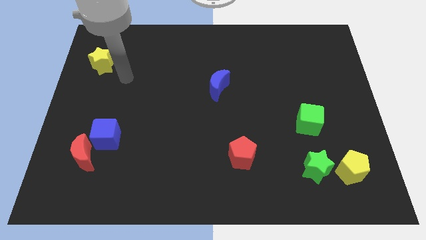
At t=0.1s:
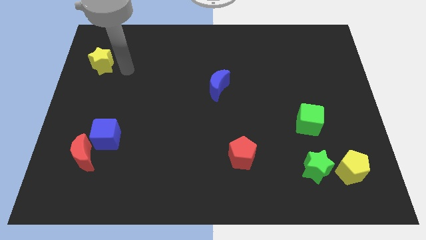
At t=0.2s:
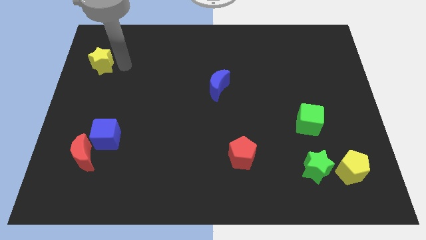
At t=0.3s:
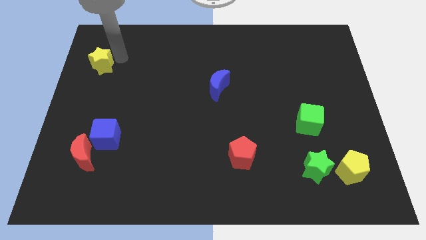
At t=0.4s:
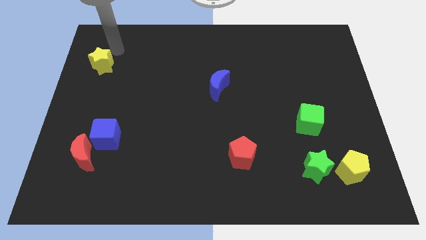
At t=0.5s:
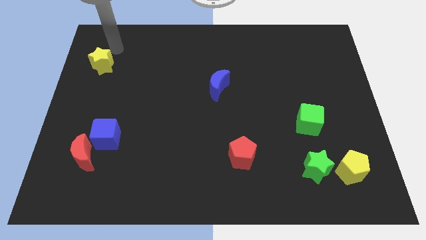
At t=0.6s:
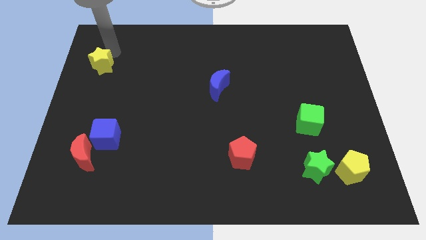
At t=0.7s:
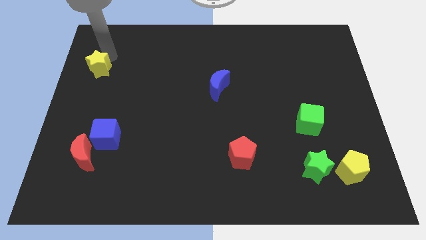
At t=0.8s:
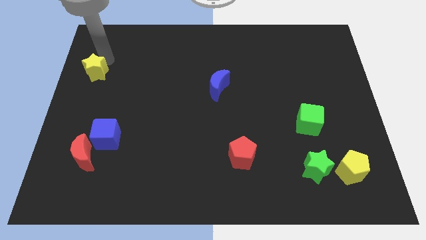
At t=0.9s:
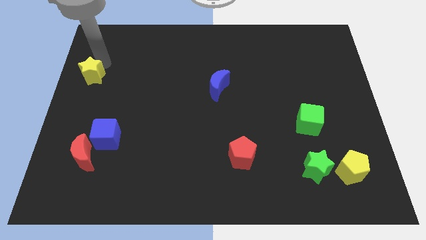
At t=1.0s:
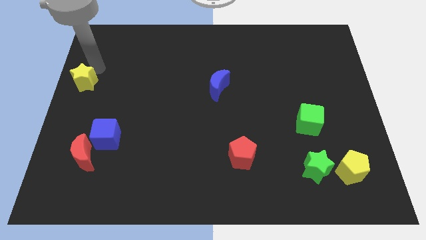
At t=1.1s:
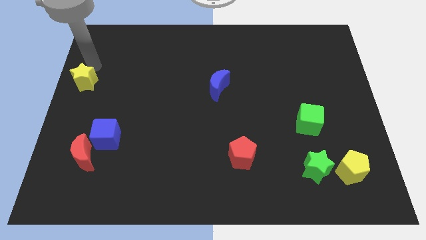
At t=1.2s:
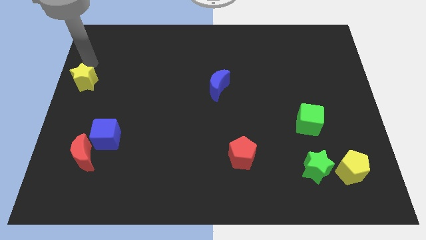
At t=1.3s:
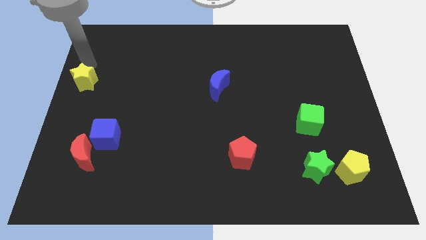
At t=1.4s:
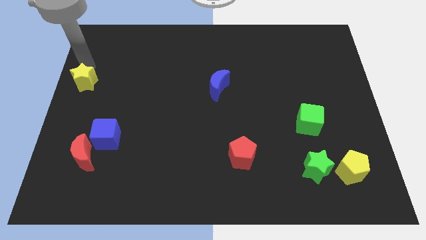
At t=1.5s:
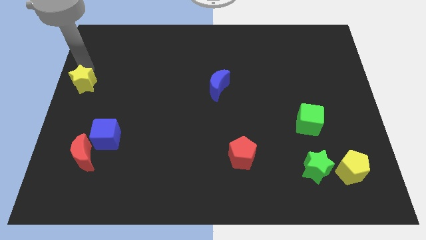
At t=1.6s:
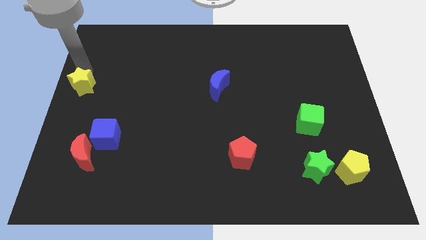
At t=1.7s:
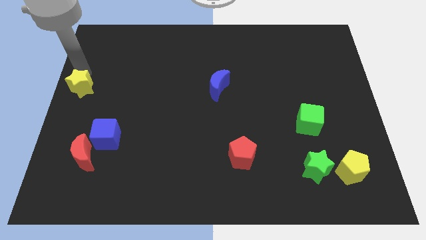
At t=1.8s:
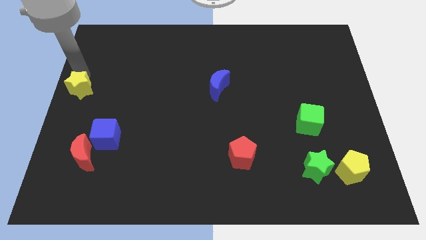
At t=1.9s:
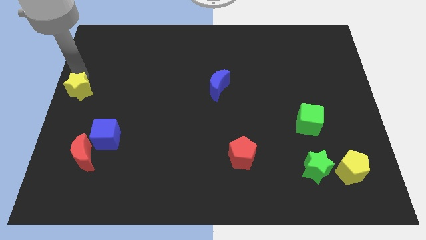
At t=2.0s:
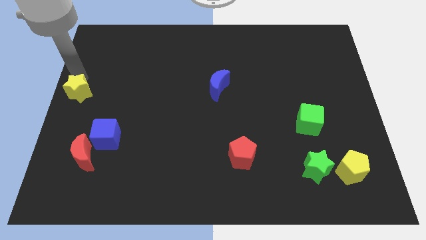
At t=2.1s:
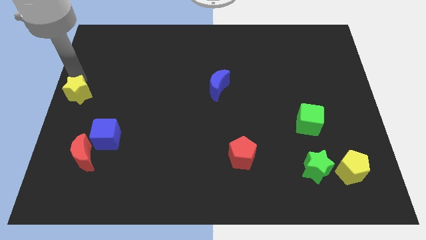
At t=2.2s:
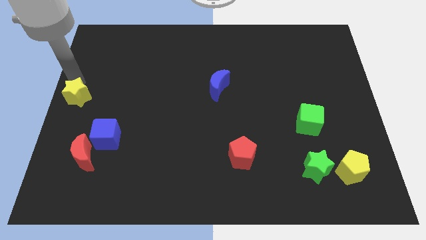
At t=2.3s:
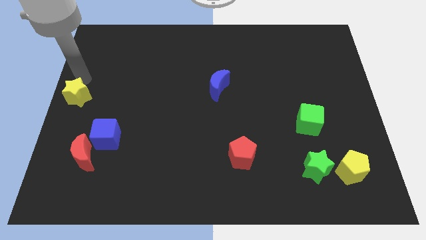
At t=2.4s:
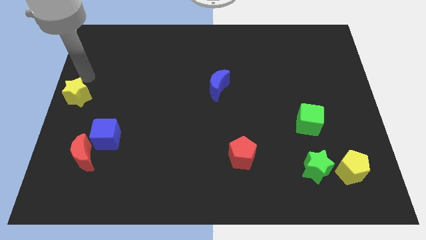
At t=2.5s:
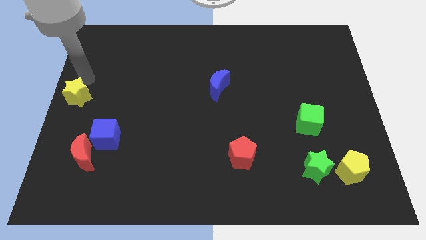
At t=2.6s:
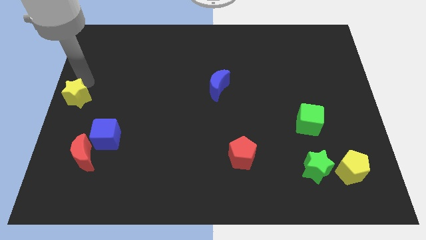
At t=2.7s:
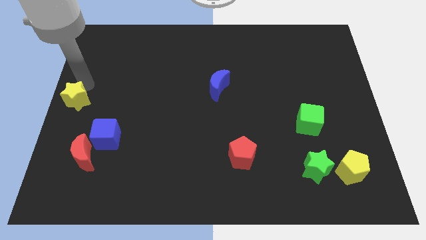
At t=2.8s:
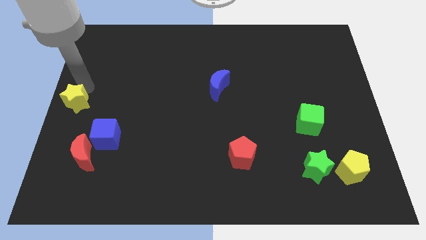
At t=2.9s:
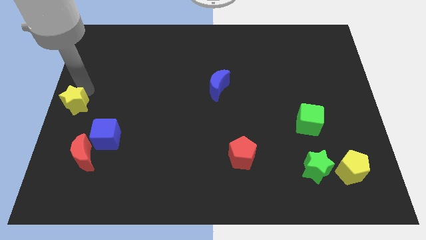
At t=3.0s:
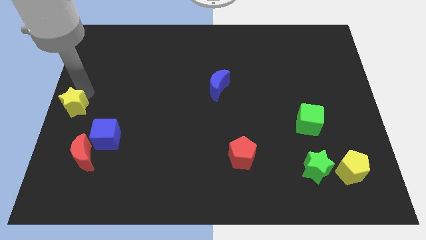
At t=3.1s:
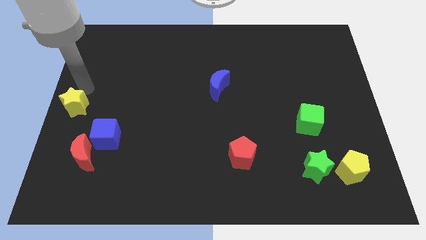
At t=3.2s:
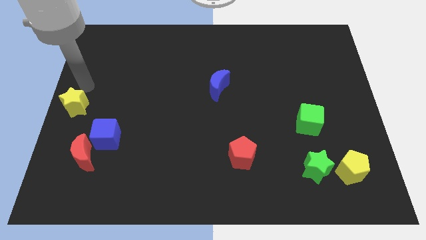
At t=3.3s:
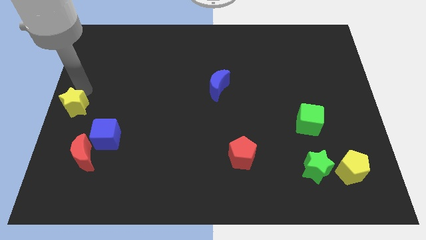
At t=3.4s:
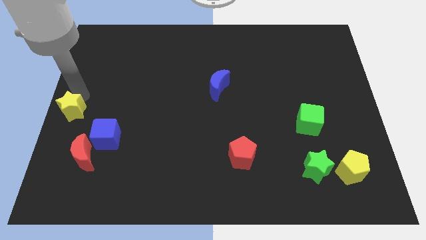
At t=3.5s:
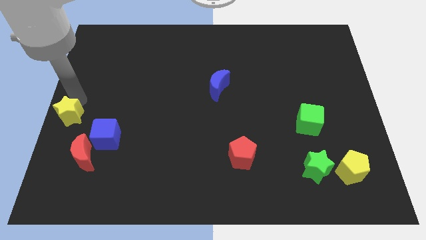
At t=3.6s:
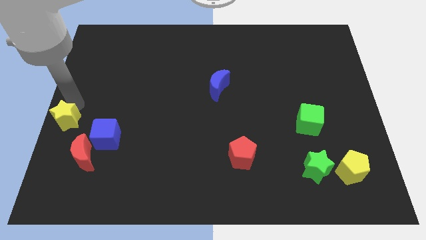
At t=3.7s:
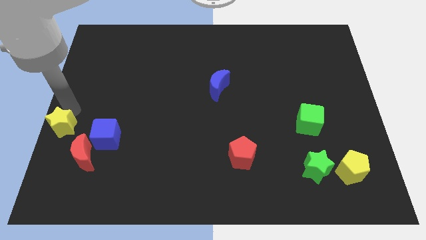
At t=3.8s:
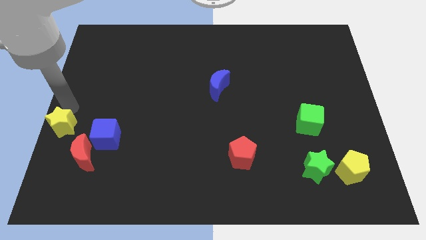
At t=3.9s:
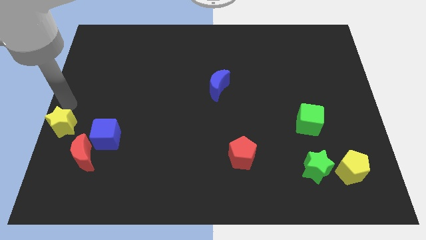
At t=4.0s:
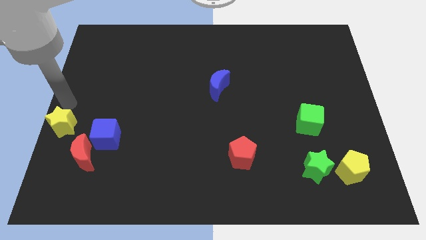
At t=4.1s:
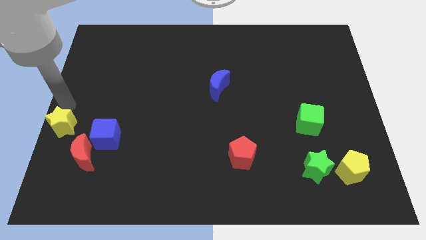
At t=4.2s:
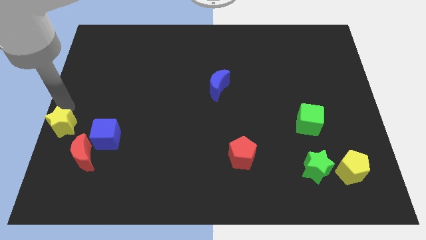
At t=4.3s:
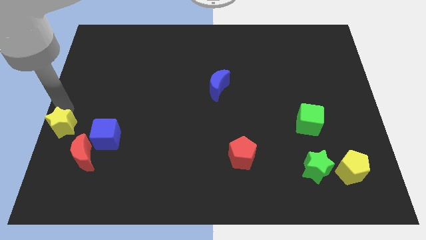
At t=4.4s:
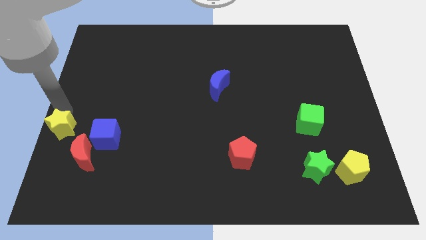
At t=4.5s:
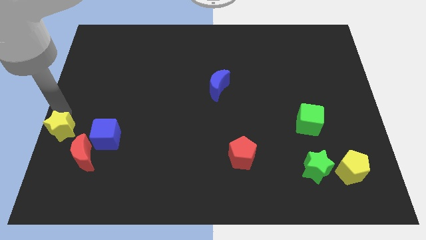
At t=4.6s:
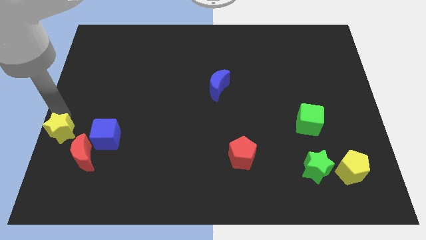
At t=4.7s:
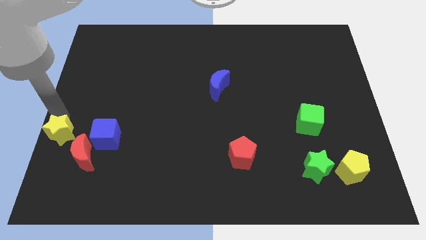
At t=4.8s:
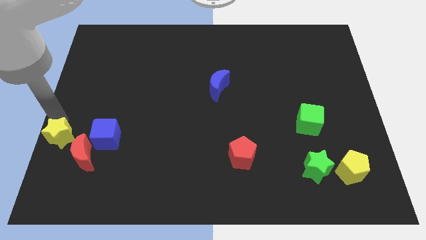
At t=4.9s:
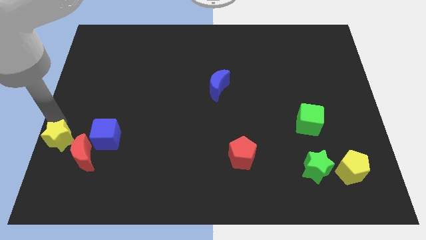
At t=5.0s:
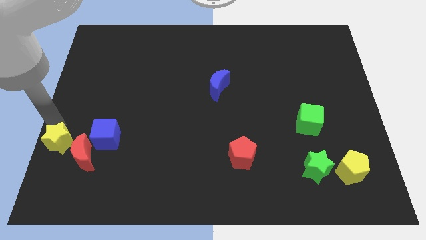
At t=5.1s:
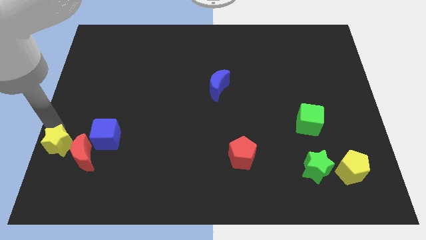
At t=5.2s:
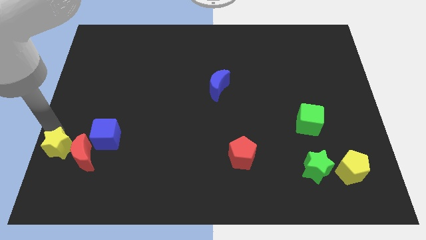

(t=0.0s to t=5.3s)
put the yellow star to the bottom left side of the blue cube

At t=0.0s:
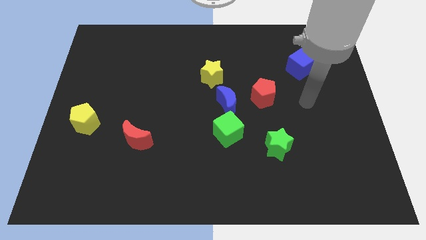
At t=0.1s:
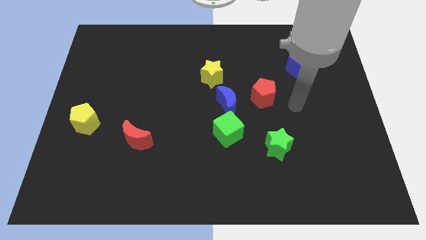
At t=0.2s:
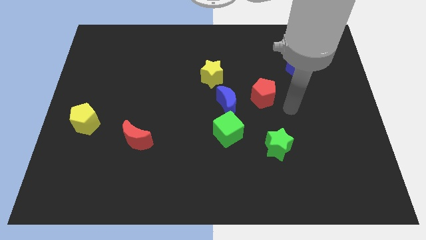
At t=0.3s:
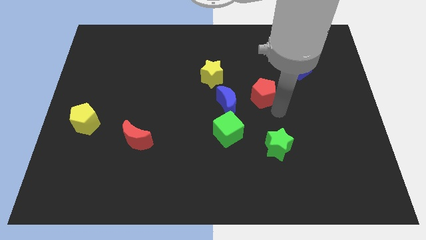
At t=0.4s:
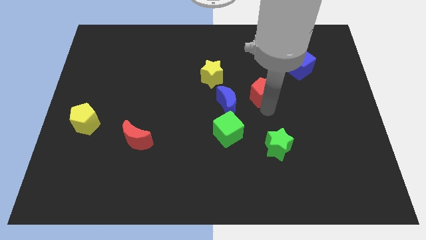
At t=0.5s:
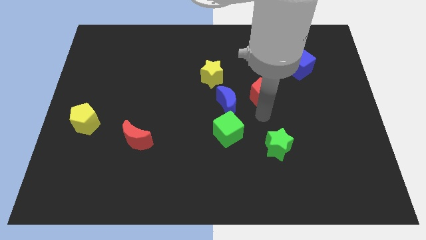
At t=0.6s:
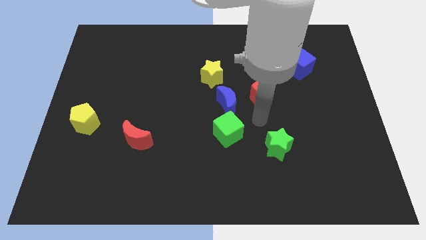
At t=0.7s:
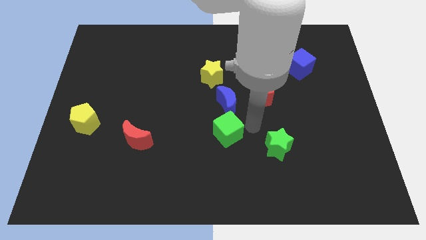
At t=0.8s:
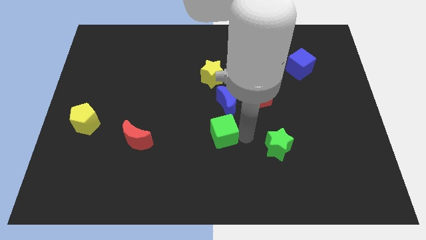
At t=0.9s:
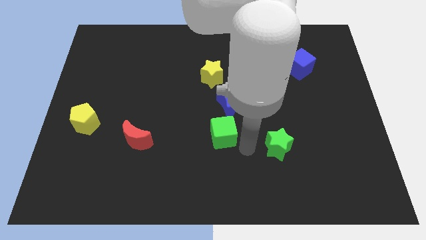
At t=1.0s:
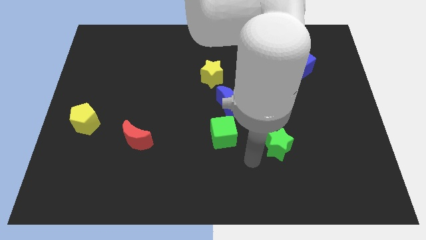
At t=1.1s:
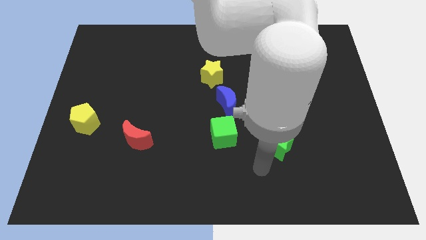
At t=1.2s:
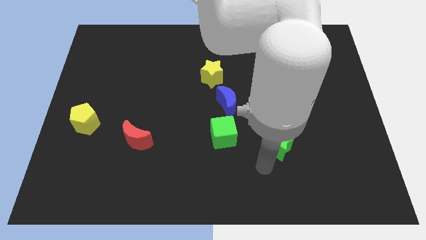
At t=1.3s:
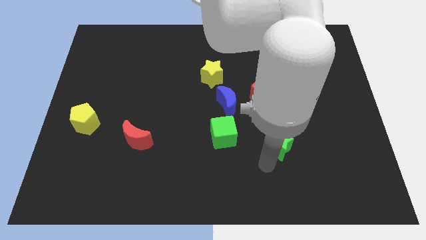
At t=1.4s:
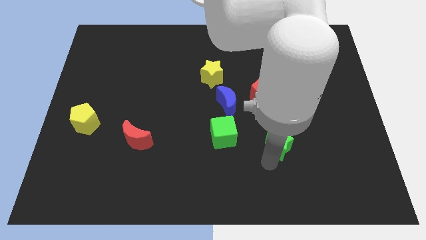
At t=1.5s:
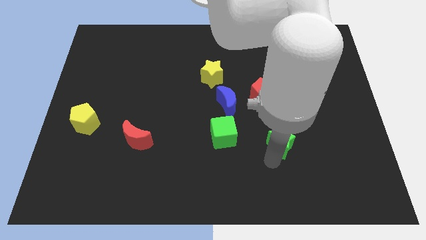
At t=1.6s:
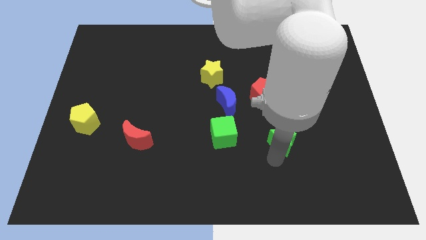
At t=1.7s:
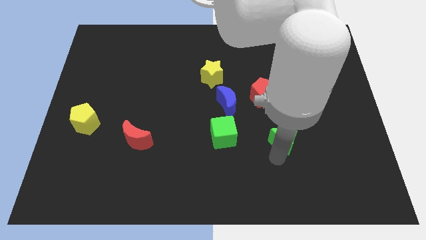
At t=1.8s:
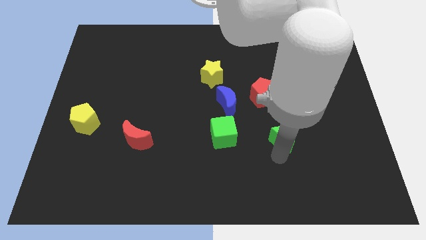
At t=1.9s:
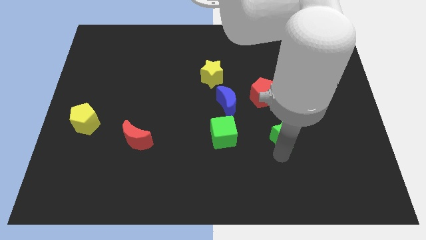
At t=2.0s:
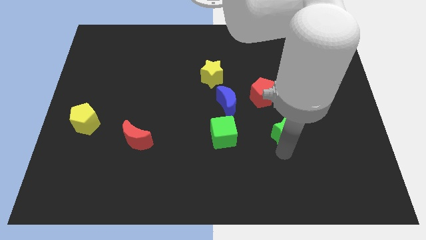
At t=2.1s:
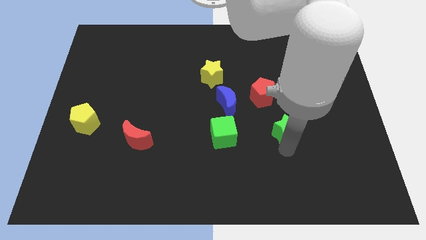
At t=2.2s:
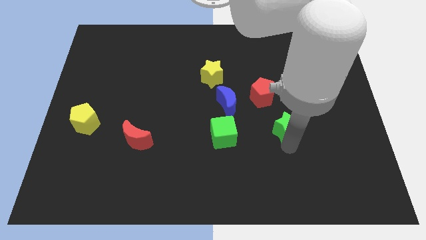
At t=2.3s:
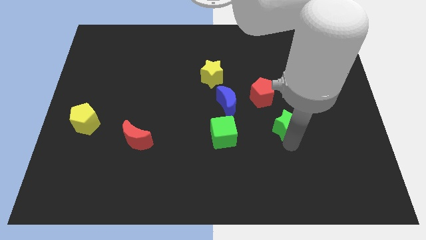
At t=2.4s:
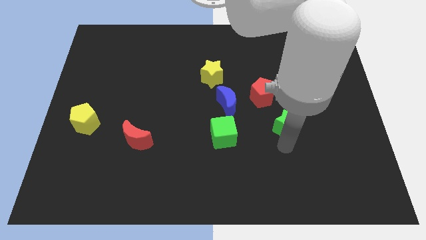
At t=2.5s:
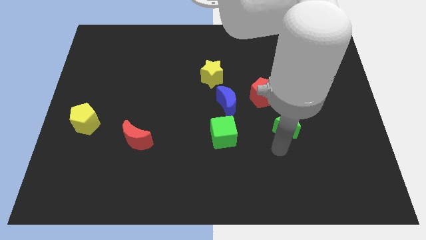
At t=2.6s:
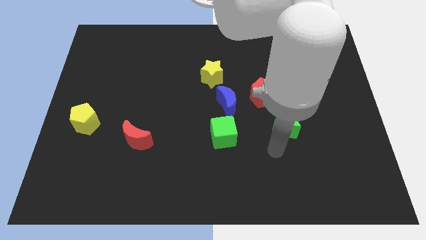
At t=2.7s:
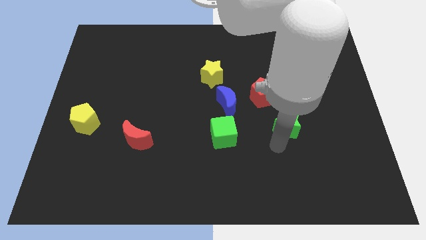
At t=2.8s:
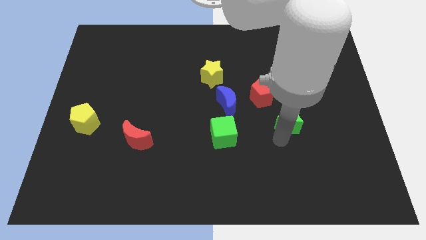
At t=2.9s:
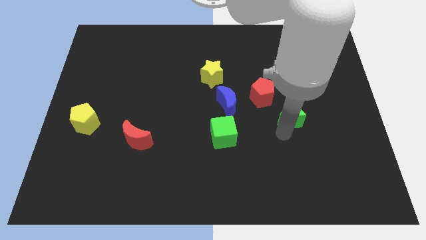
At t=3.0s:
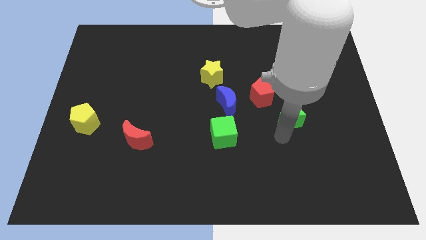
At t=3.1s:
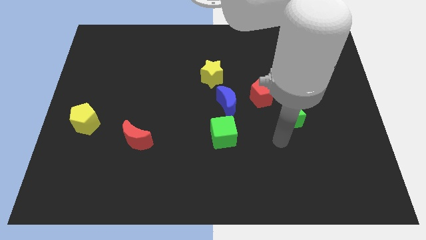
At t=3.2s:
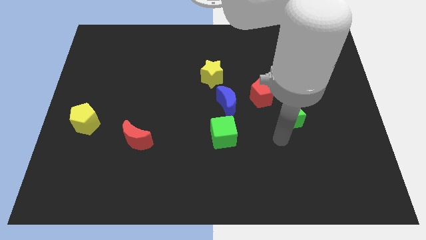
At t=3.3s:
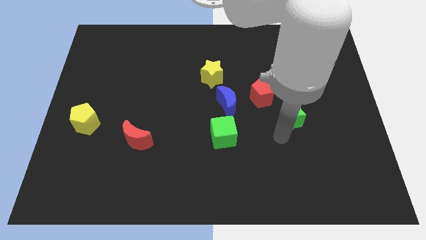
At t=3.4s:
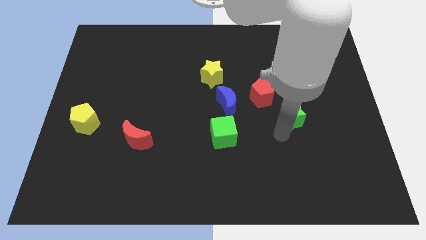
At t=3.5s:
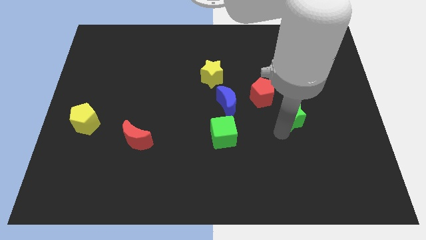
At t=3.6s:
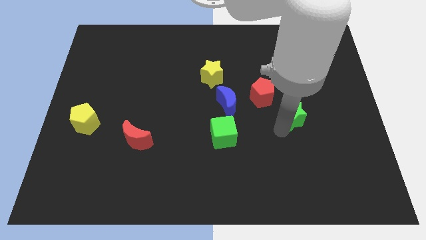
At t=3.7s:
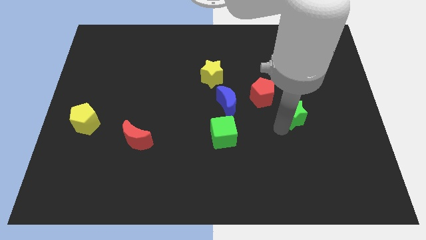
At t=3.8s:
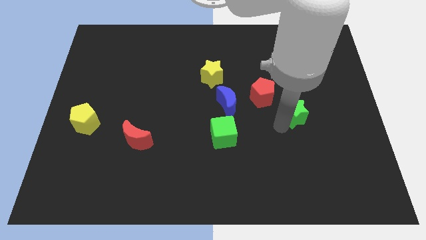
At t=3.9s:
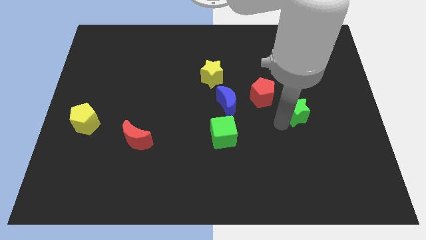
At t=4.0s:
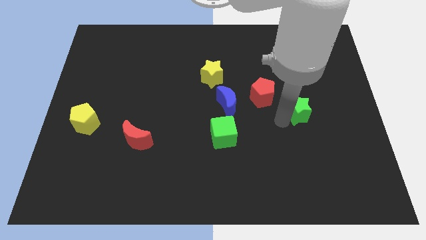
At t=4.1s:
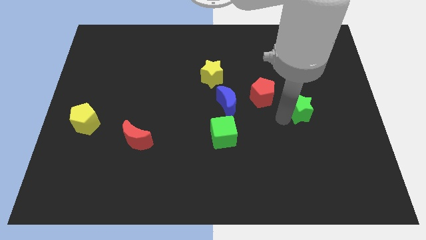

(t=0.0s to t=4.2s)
put the green star to the right of the red pentagon
